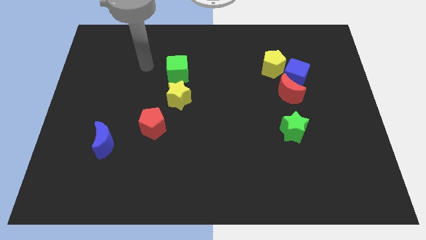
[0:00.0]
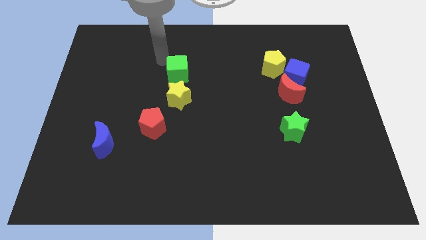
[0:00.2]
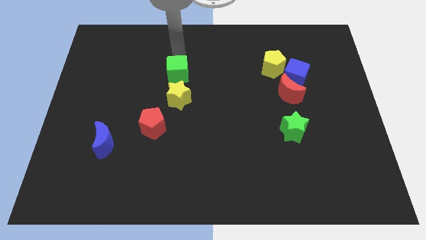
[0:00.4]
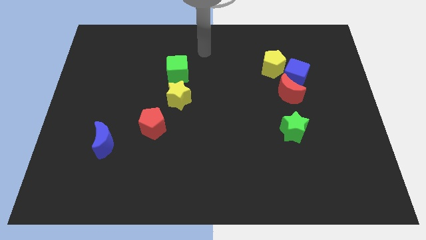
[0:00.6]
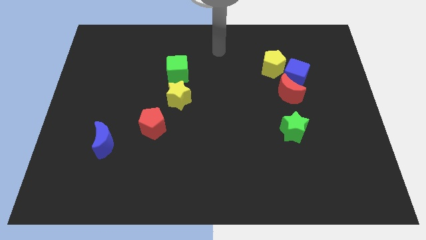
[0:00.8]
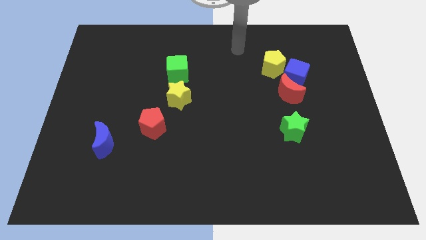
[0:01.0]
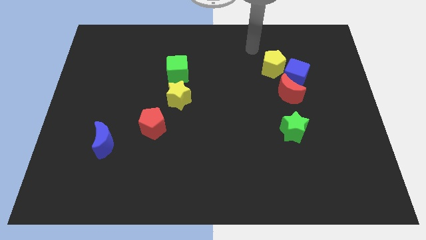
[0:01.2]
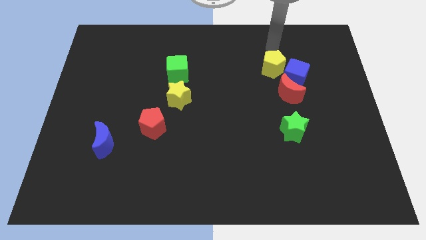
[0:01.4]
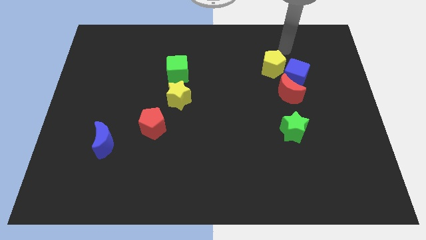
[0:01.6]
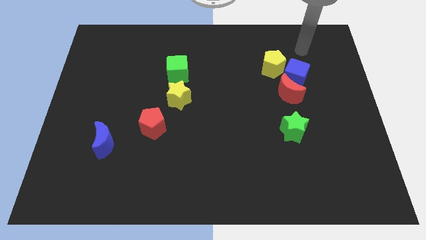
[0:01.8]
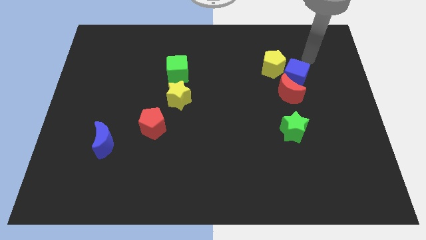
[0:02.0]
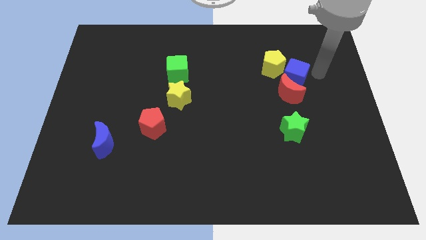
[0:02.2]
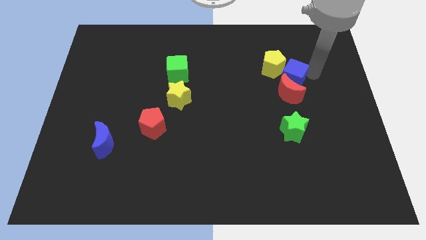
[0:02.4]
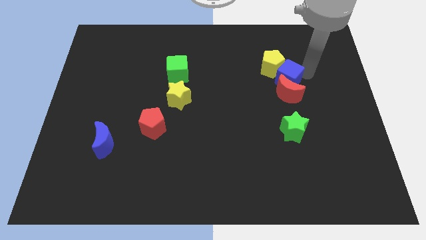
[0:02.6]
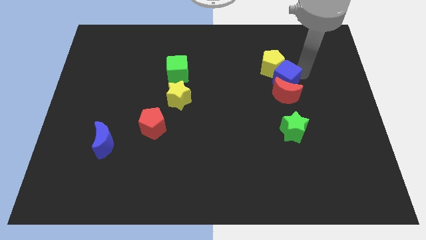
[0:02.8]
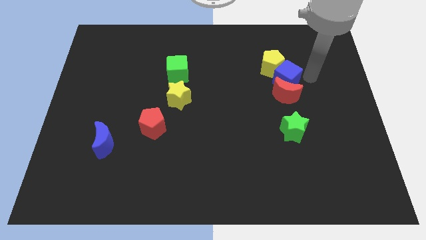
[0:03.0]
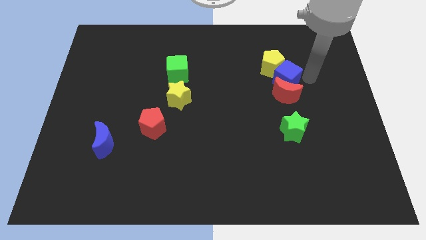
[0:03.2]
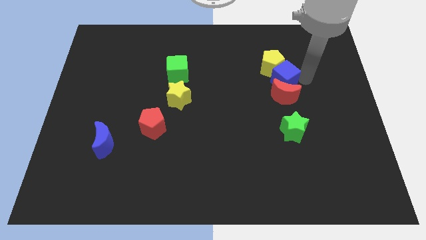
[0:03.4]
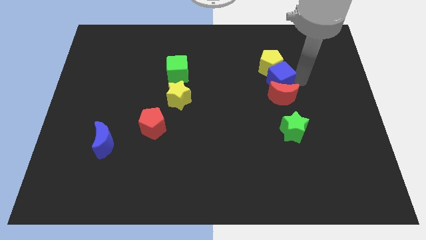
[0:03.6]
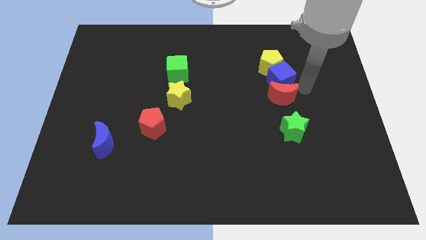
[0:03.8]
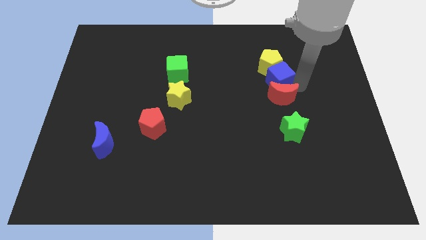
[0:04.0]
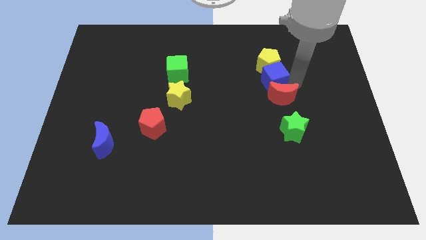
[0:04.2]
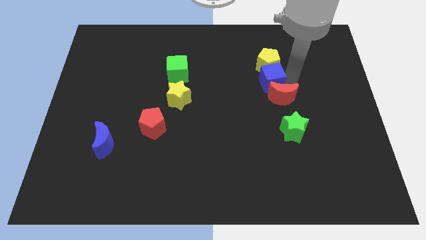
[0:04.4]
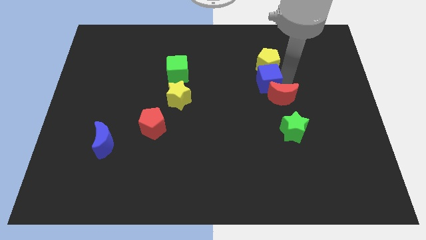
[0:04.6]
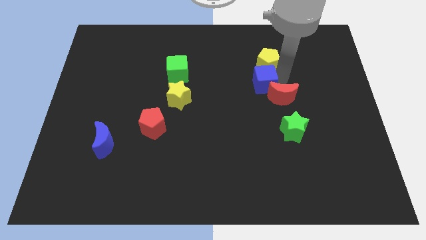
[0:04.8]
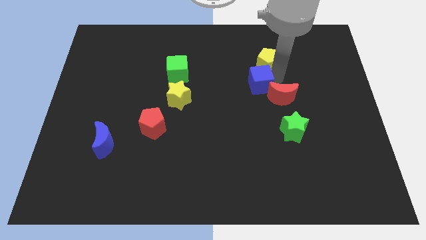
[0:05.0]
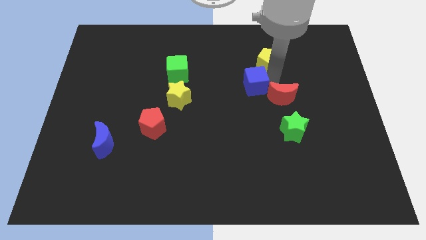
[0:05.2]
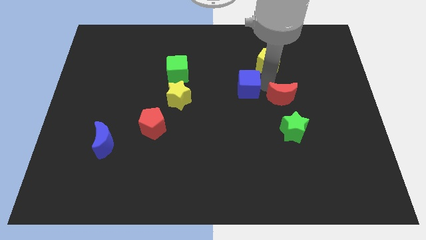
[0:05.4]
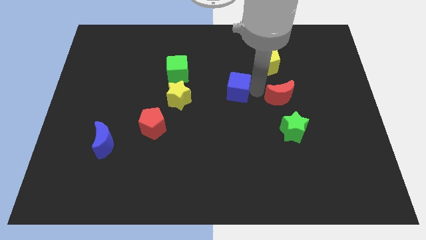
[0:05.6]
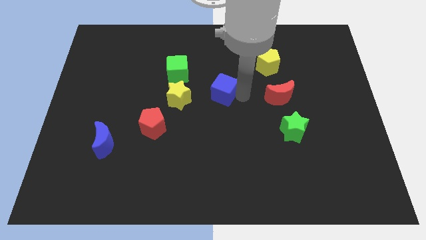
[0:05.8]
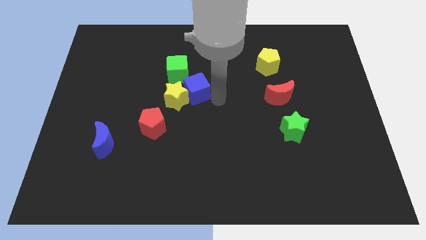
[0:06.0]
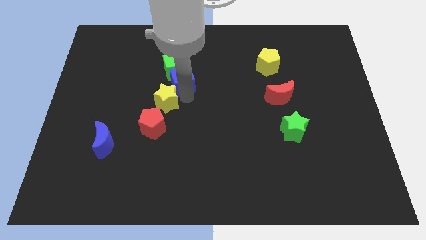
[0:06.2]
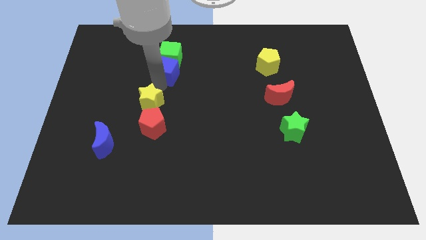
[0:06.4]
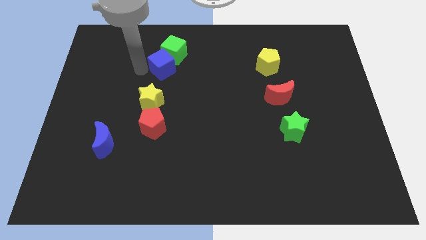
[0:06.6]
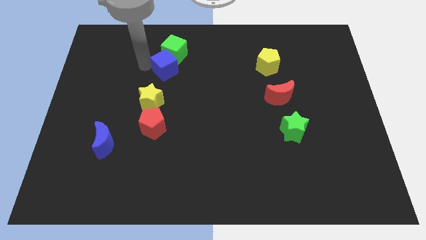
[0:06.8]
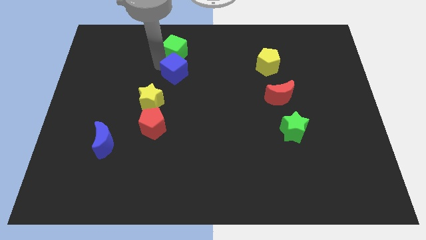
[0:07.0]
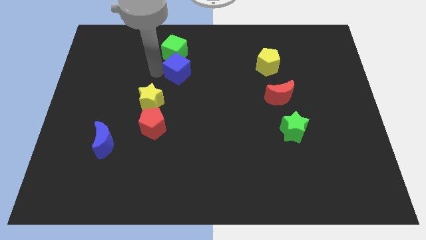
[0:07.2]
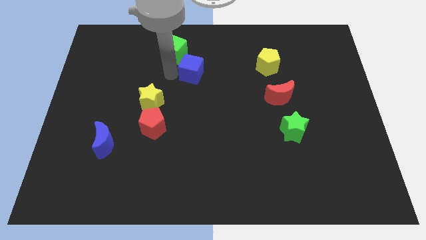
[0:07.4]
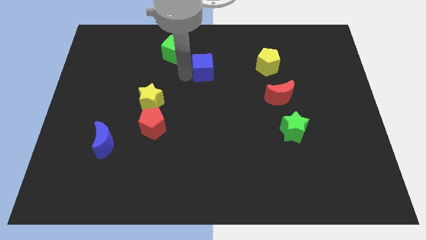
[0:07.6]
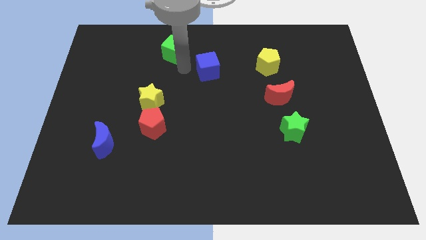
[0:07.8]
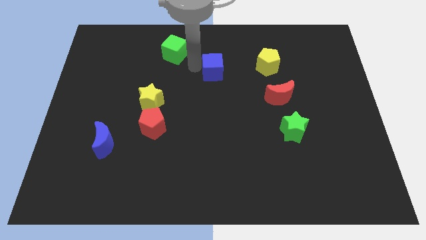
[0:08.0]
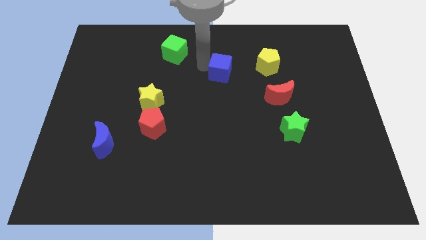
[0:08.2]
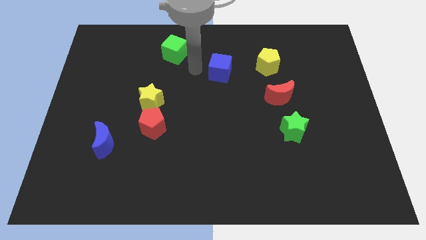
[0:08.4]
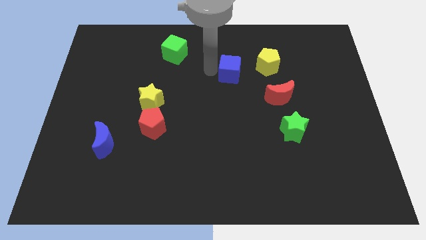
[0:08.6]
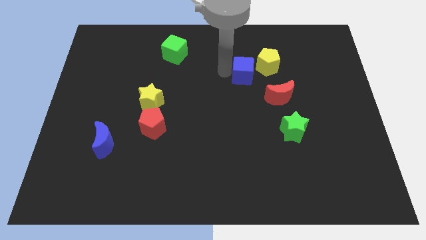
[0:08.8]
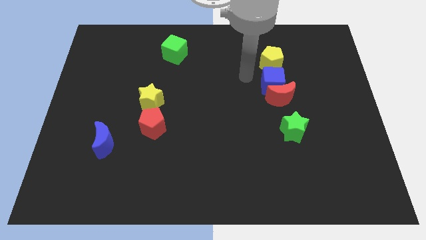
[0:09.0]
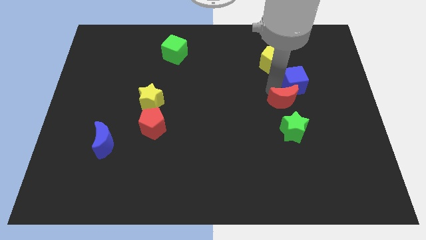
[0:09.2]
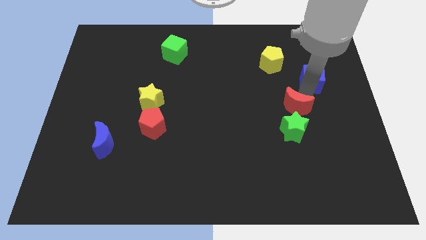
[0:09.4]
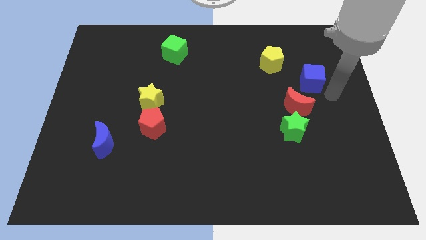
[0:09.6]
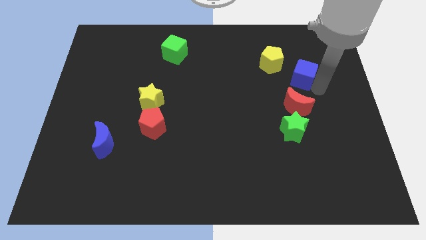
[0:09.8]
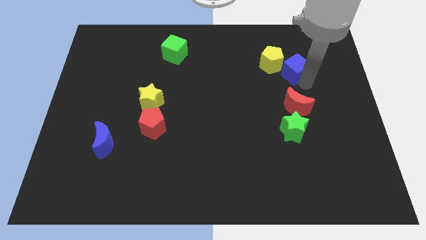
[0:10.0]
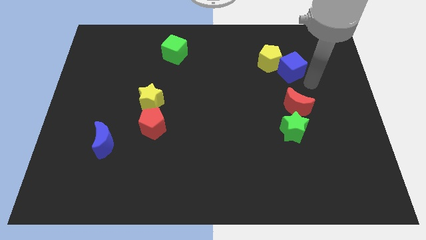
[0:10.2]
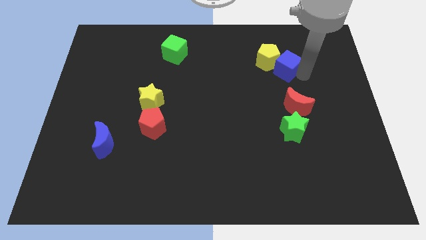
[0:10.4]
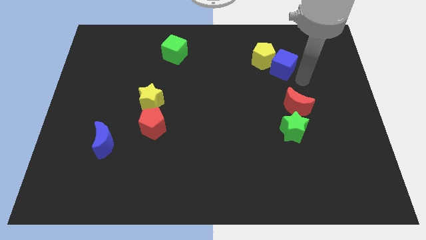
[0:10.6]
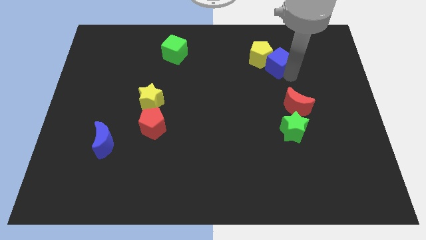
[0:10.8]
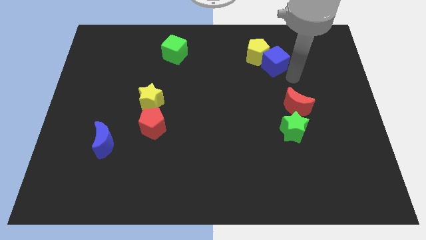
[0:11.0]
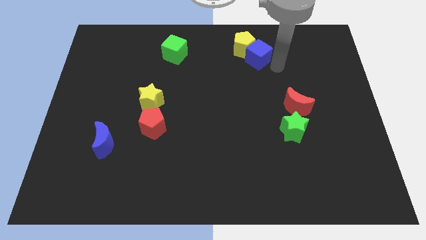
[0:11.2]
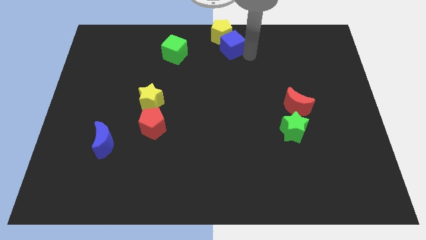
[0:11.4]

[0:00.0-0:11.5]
move the blue cube to the top

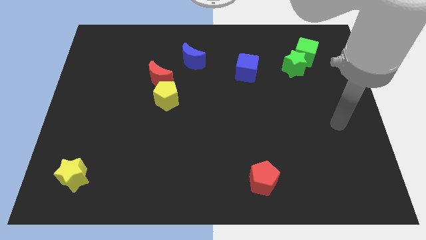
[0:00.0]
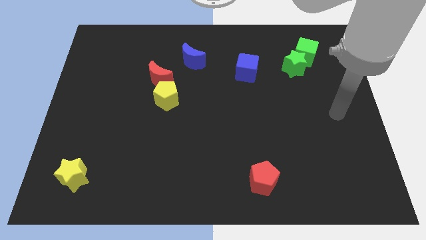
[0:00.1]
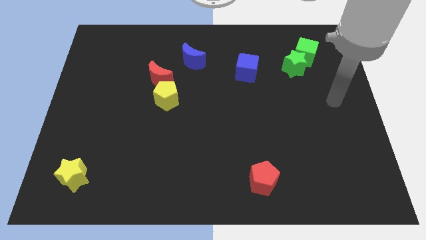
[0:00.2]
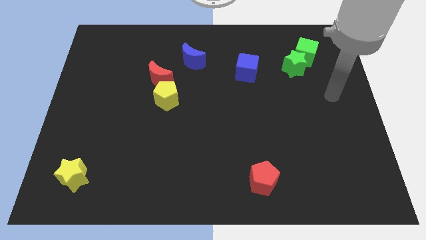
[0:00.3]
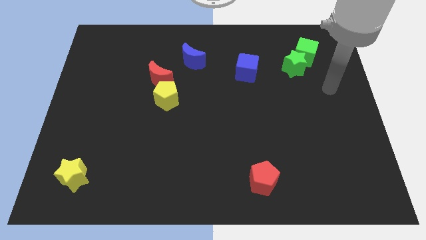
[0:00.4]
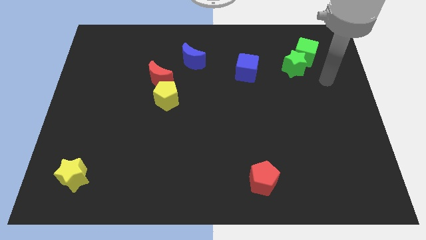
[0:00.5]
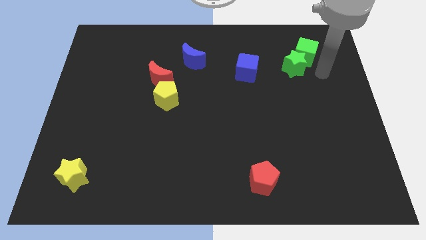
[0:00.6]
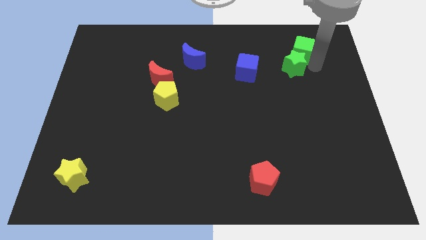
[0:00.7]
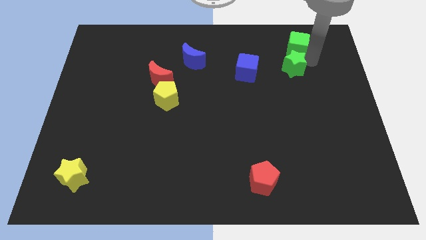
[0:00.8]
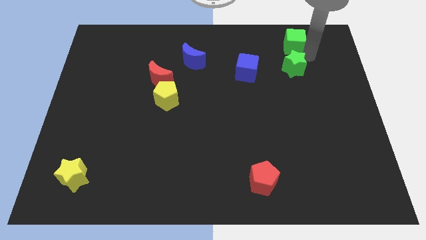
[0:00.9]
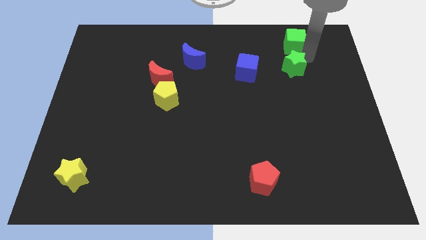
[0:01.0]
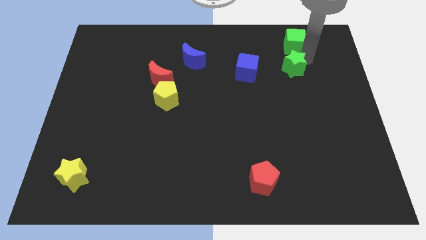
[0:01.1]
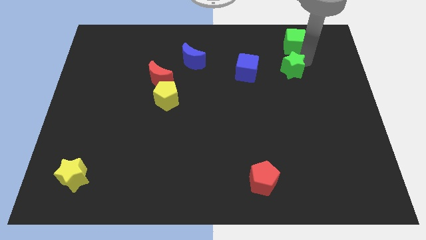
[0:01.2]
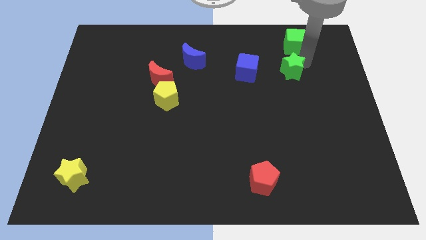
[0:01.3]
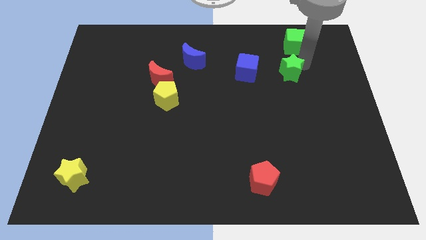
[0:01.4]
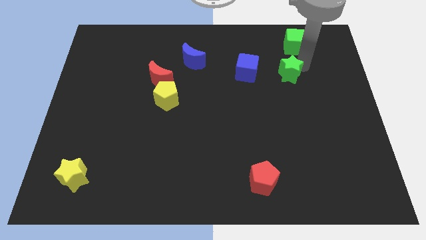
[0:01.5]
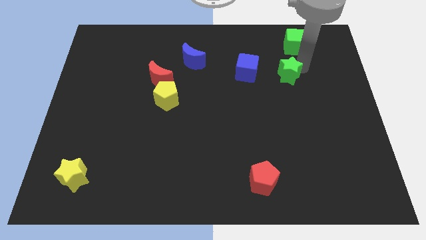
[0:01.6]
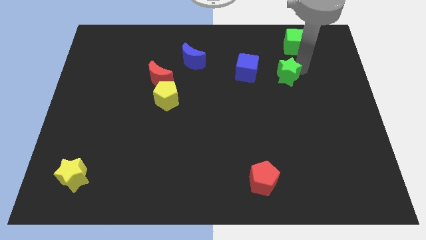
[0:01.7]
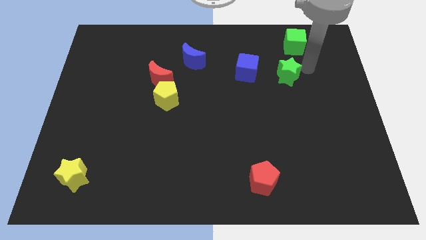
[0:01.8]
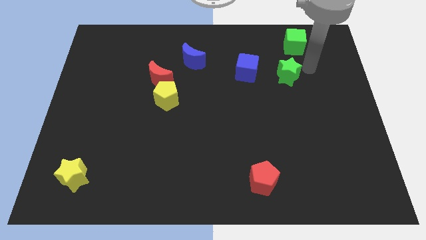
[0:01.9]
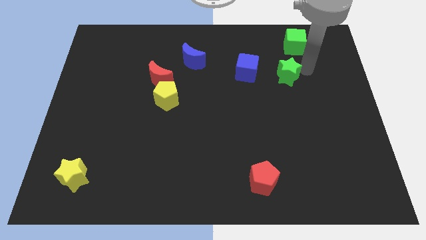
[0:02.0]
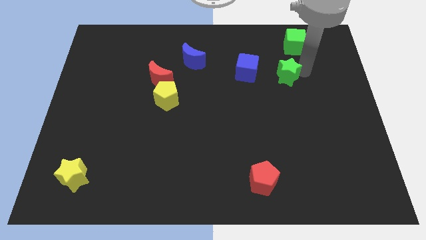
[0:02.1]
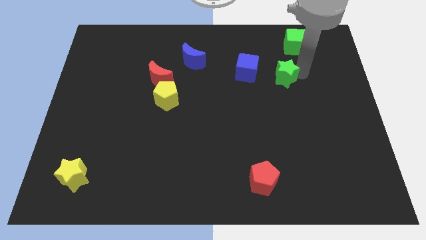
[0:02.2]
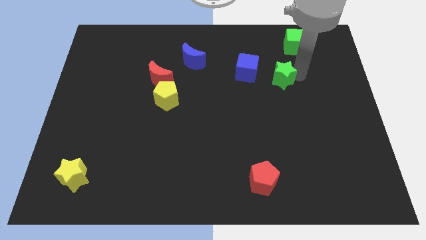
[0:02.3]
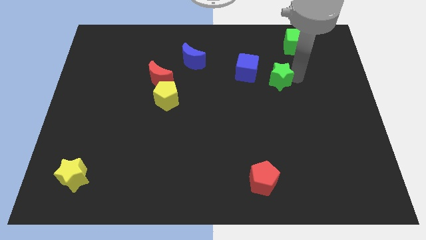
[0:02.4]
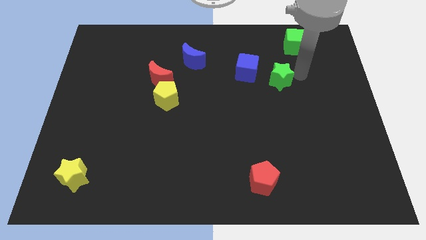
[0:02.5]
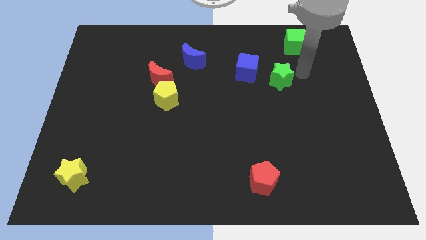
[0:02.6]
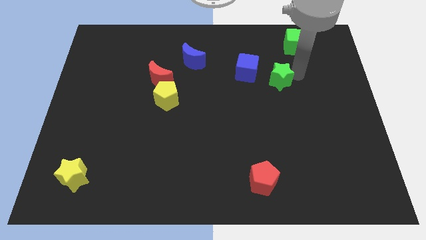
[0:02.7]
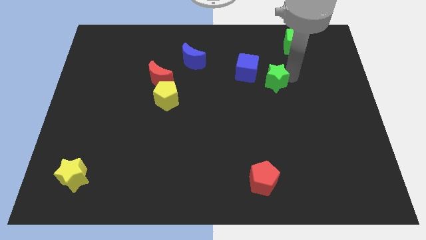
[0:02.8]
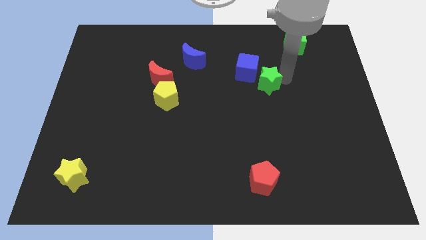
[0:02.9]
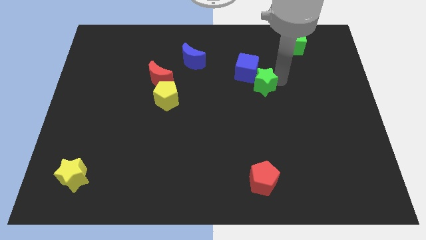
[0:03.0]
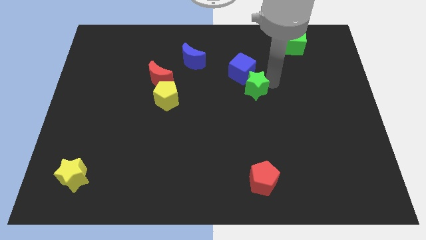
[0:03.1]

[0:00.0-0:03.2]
move the green star to the center
